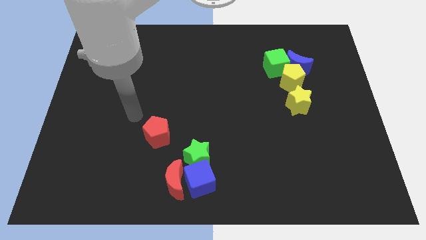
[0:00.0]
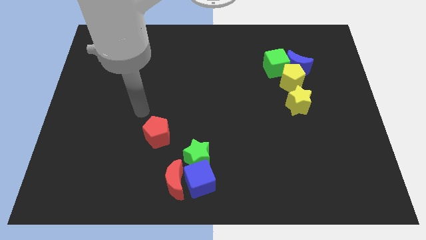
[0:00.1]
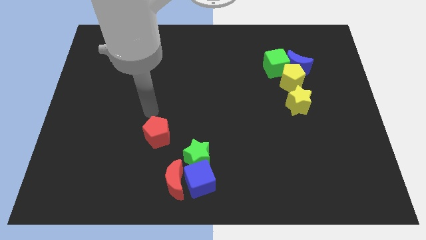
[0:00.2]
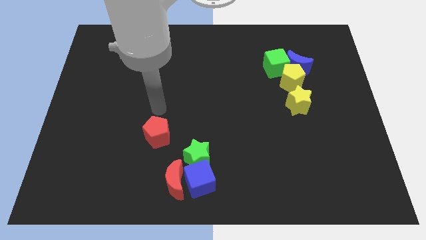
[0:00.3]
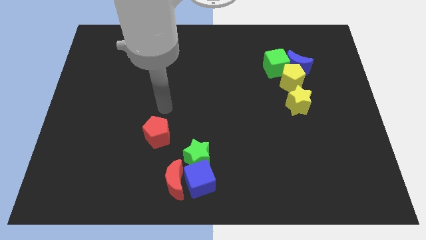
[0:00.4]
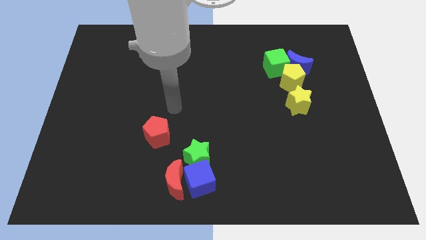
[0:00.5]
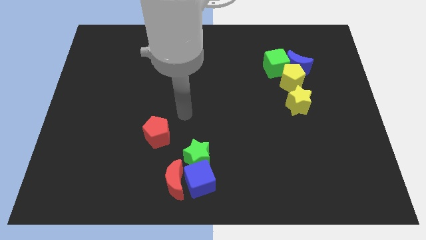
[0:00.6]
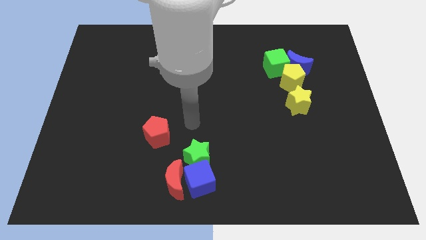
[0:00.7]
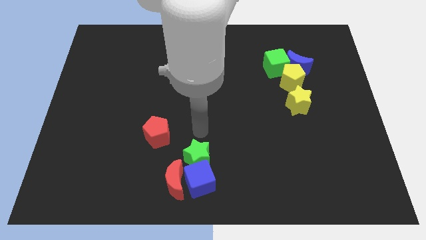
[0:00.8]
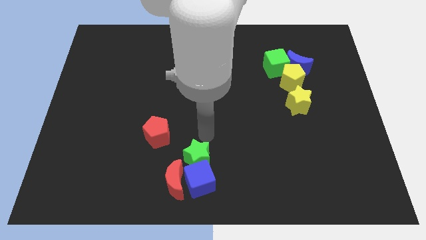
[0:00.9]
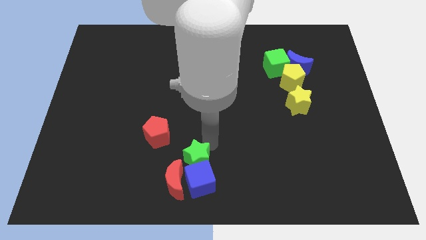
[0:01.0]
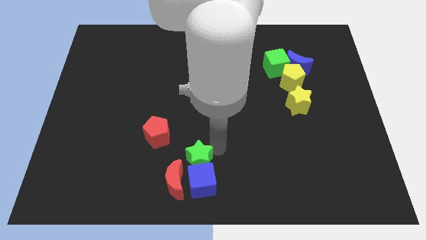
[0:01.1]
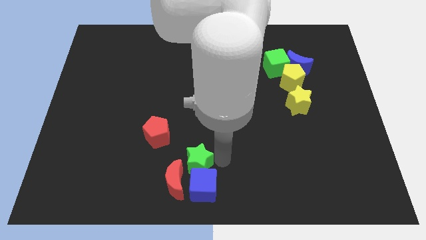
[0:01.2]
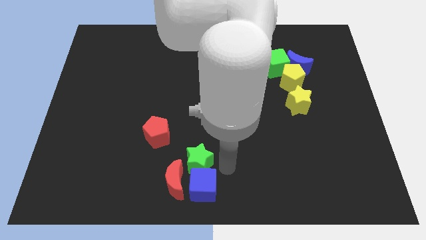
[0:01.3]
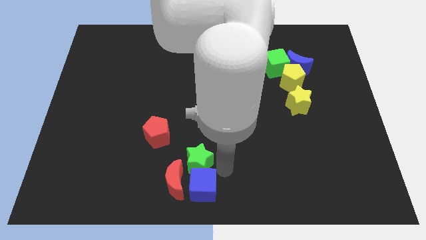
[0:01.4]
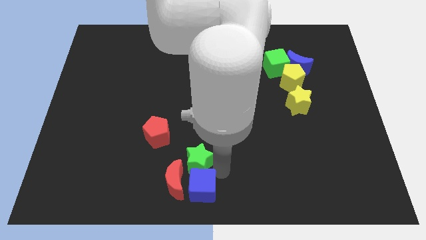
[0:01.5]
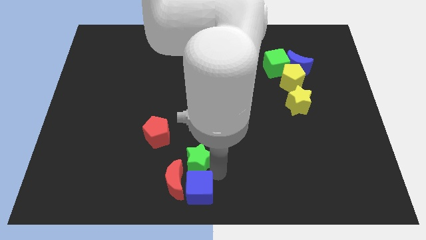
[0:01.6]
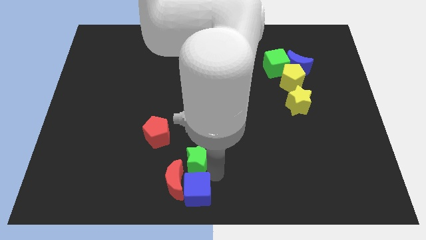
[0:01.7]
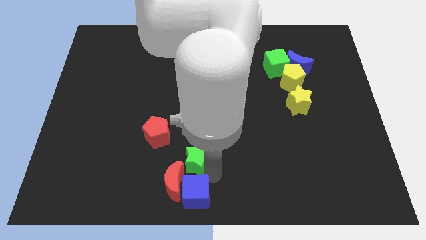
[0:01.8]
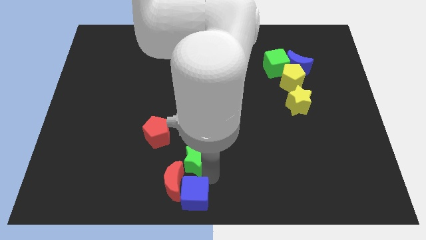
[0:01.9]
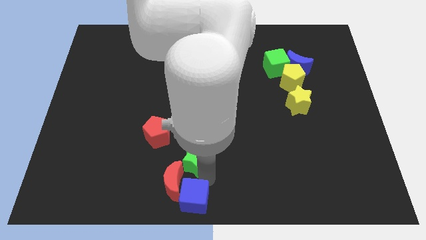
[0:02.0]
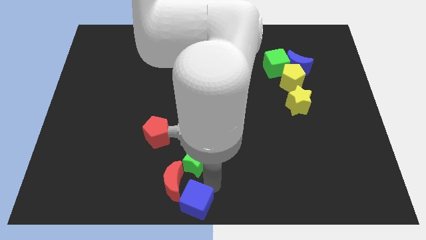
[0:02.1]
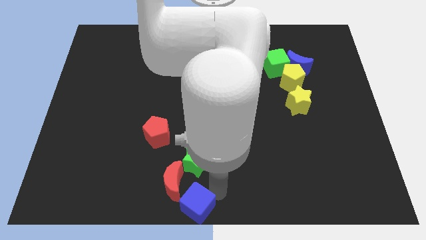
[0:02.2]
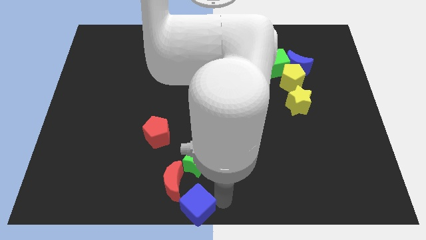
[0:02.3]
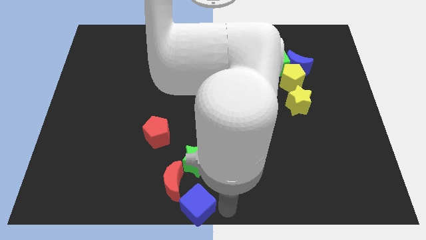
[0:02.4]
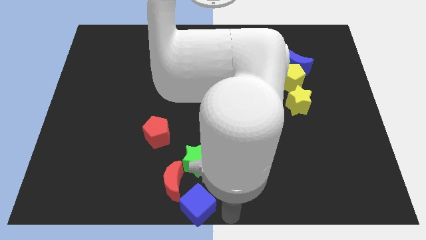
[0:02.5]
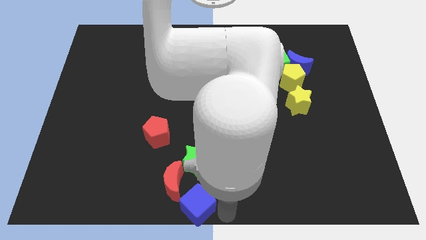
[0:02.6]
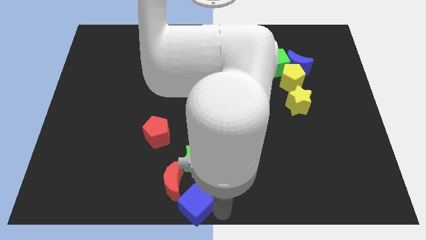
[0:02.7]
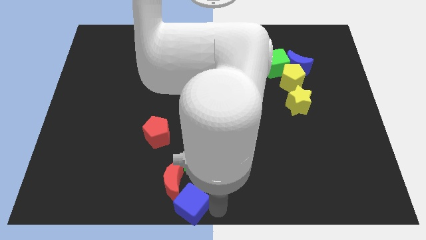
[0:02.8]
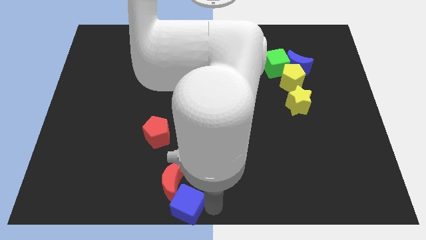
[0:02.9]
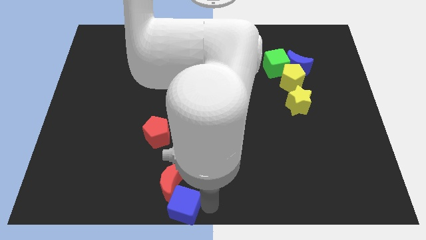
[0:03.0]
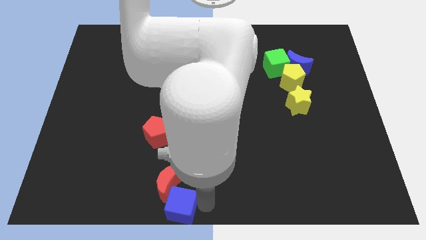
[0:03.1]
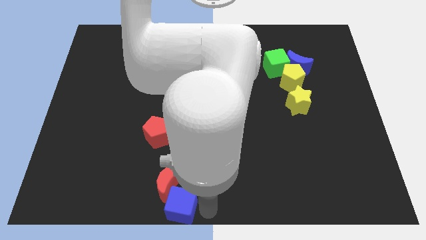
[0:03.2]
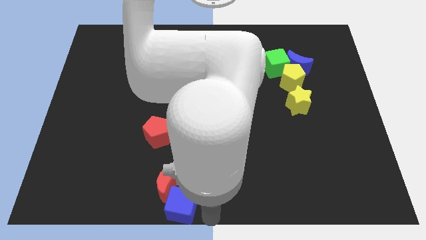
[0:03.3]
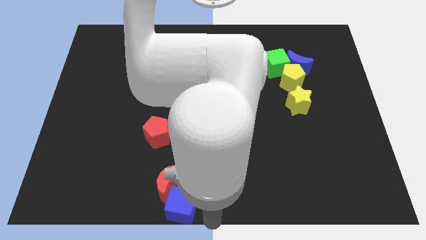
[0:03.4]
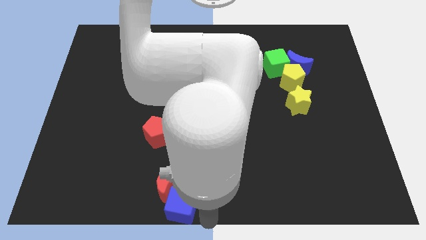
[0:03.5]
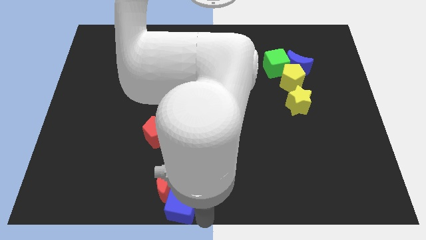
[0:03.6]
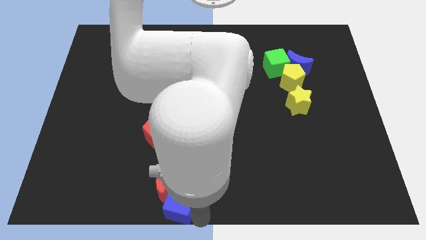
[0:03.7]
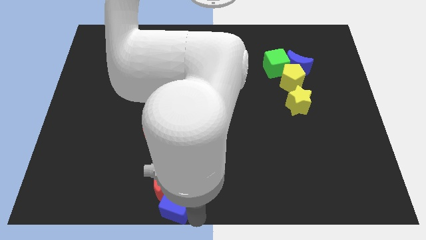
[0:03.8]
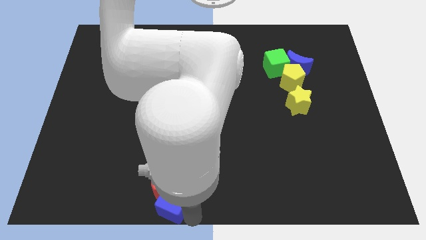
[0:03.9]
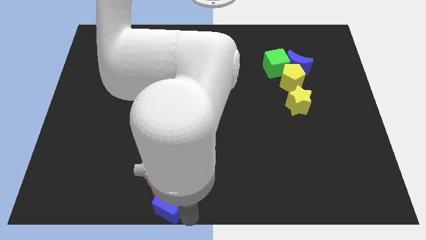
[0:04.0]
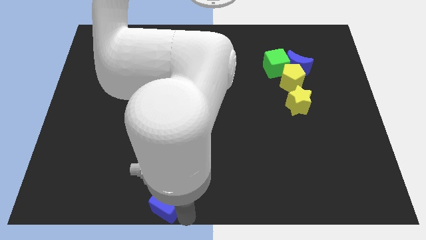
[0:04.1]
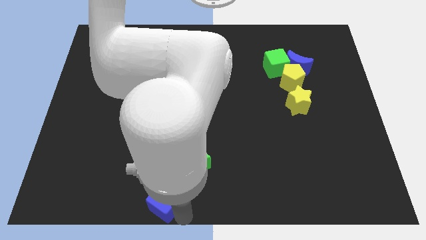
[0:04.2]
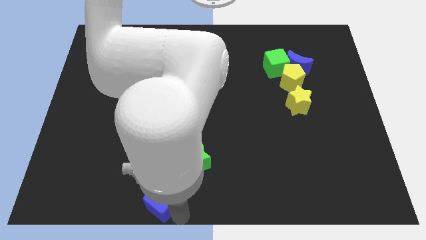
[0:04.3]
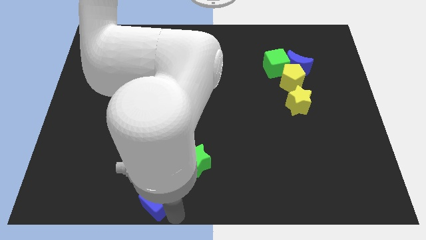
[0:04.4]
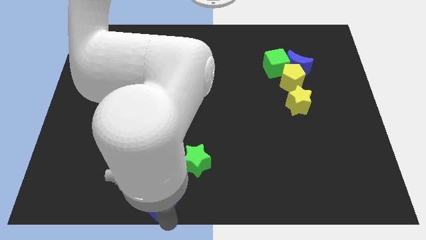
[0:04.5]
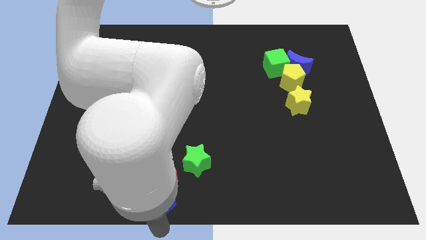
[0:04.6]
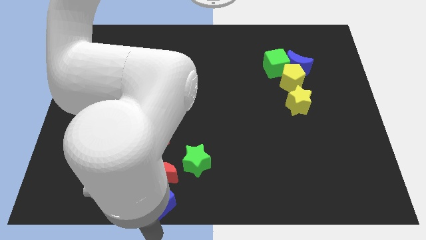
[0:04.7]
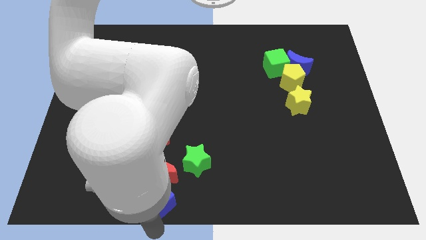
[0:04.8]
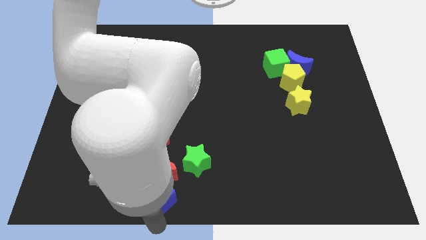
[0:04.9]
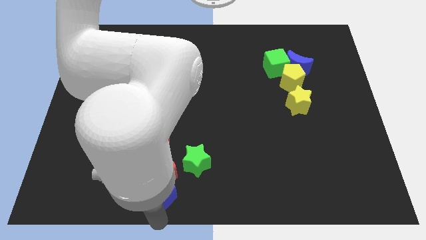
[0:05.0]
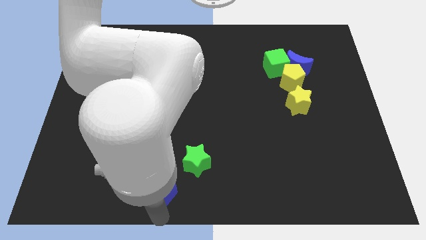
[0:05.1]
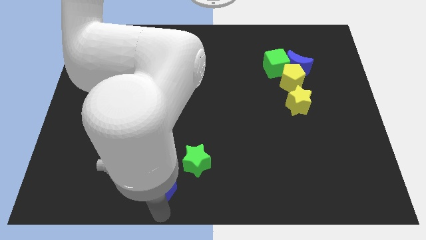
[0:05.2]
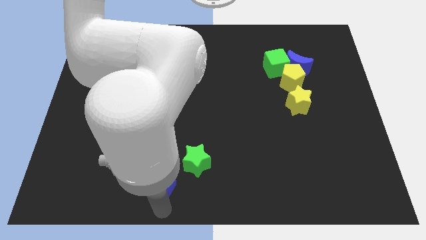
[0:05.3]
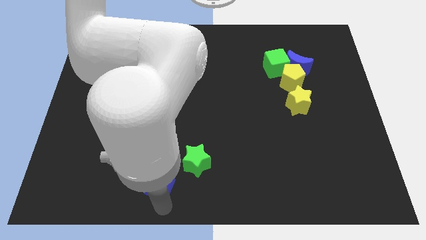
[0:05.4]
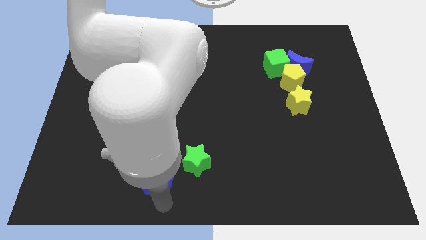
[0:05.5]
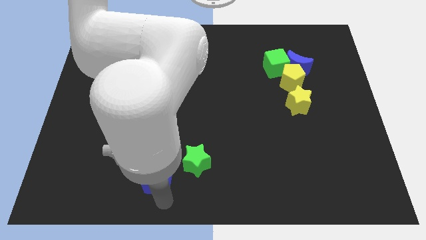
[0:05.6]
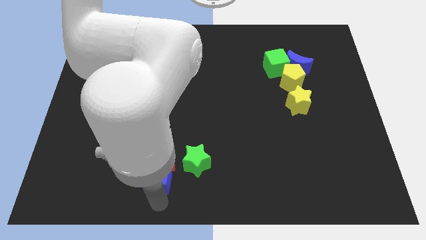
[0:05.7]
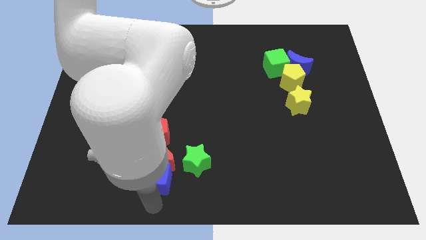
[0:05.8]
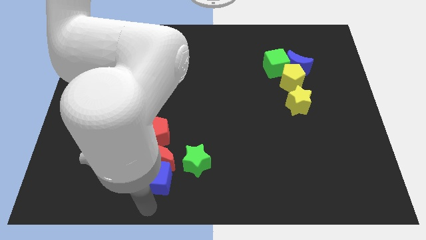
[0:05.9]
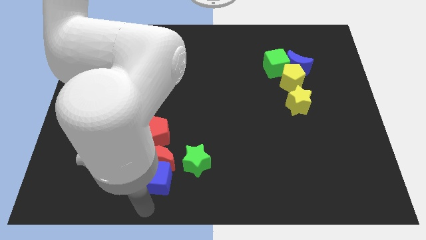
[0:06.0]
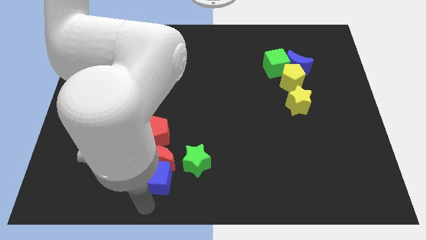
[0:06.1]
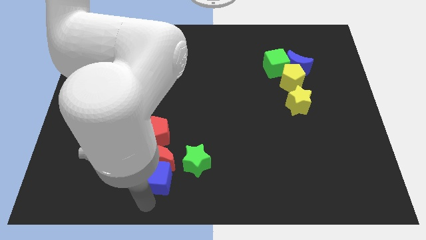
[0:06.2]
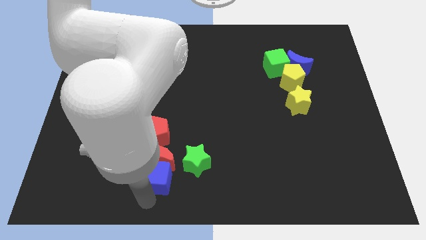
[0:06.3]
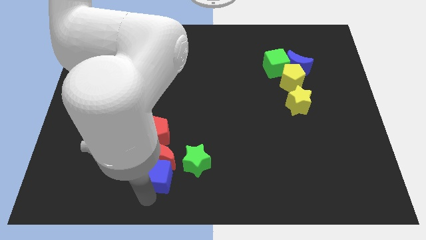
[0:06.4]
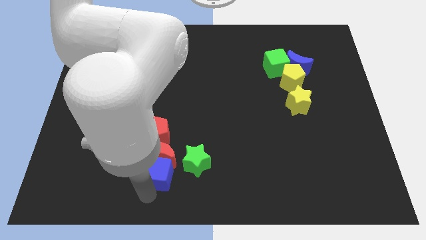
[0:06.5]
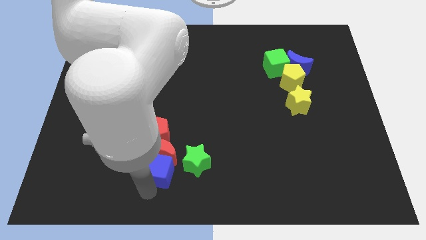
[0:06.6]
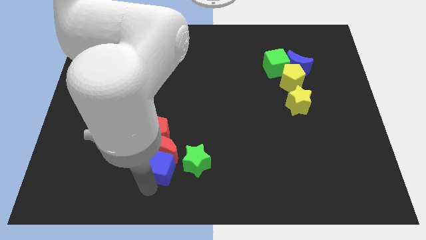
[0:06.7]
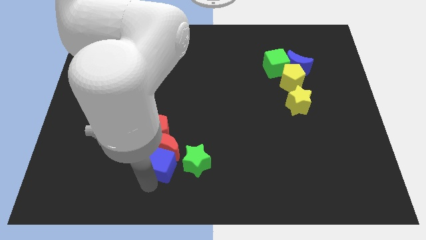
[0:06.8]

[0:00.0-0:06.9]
put the blue cube diagonally down and to the right of the red pentagon
